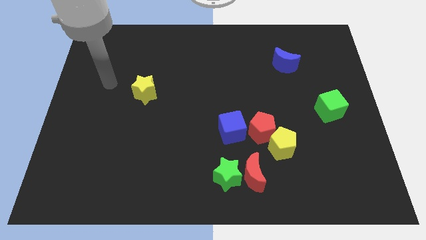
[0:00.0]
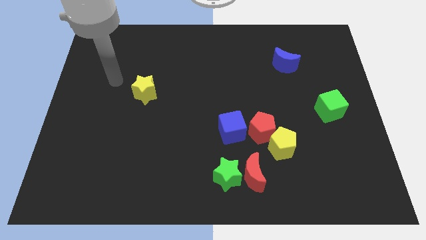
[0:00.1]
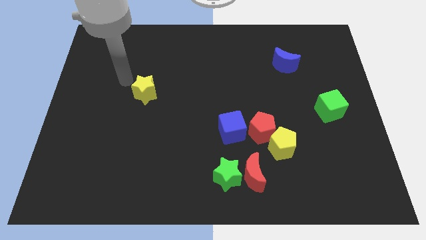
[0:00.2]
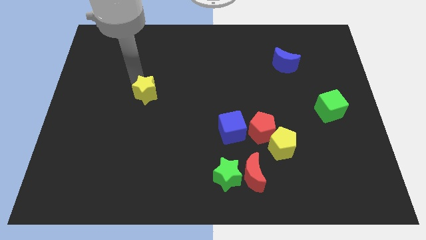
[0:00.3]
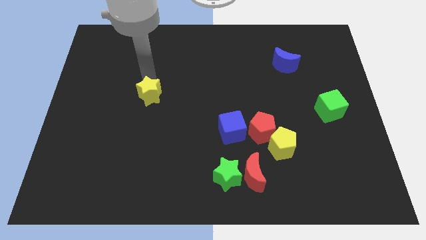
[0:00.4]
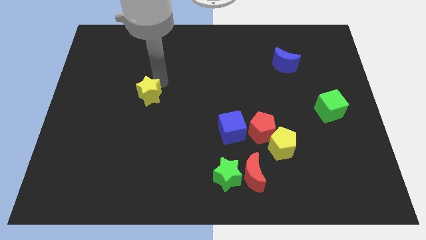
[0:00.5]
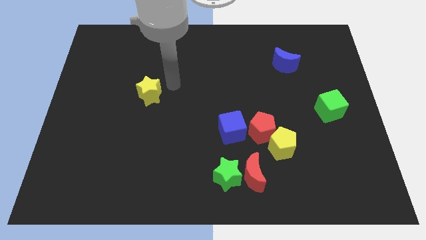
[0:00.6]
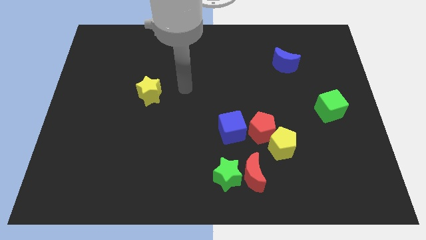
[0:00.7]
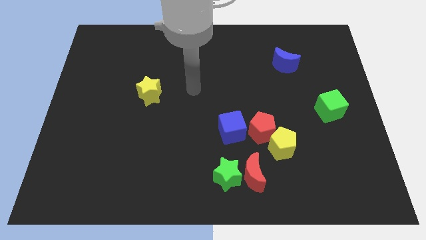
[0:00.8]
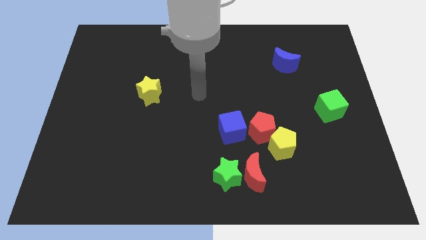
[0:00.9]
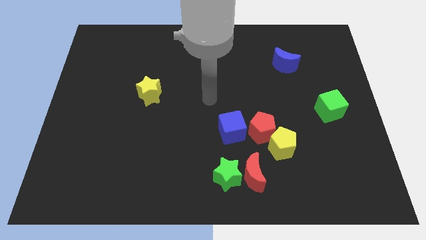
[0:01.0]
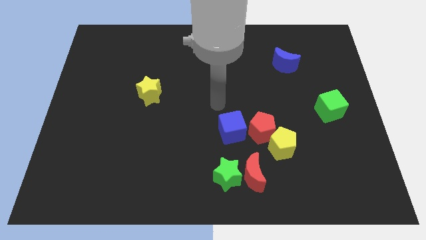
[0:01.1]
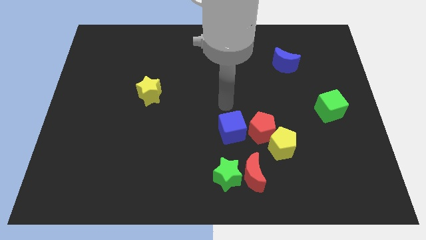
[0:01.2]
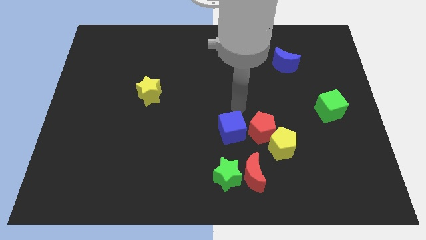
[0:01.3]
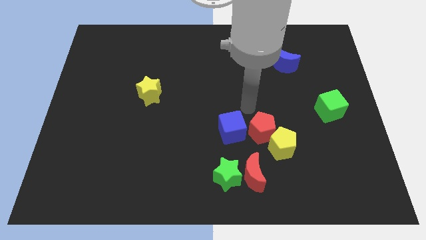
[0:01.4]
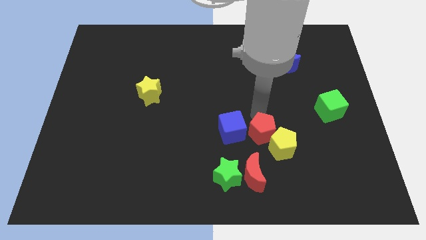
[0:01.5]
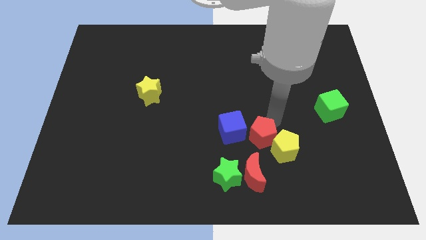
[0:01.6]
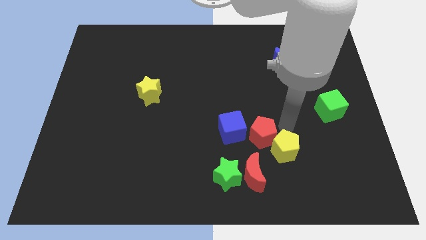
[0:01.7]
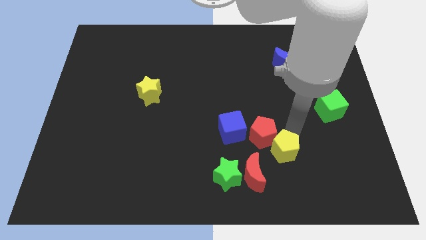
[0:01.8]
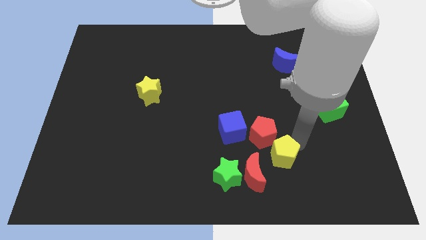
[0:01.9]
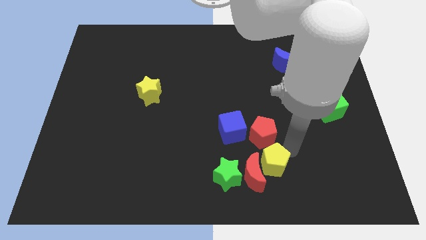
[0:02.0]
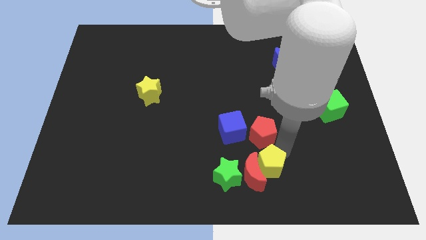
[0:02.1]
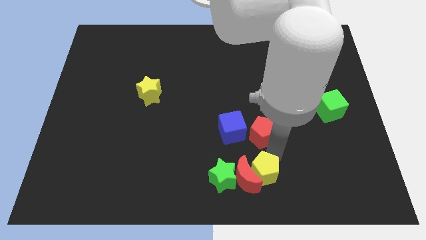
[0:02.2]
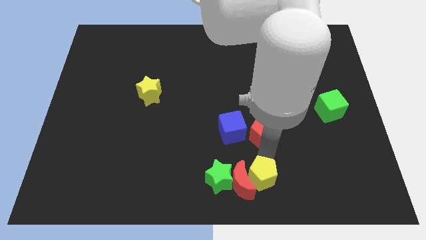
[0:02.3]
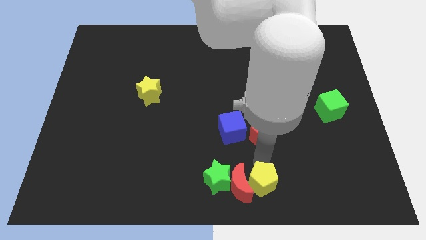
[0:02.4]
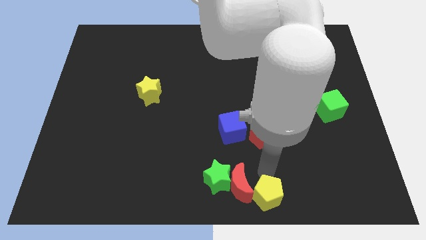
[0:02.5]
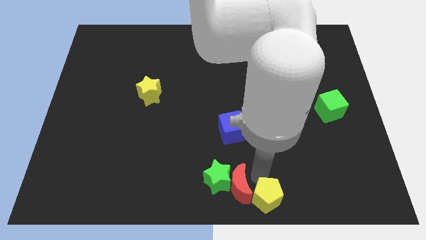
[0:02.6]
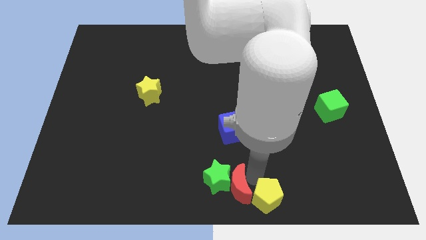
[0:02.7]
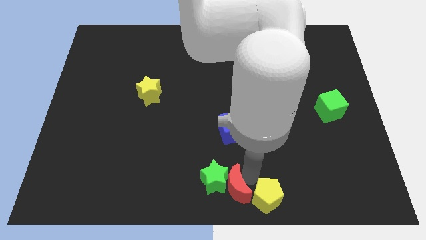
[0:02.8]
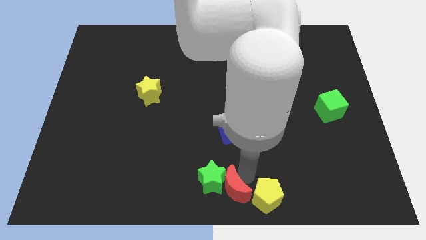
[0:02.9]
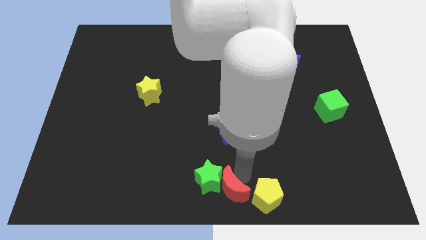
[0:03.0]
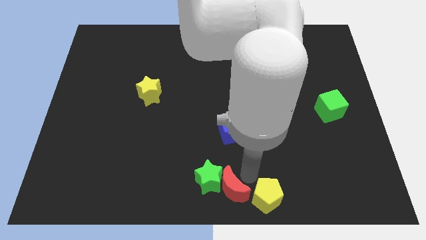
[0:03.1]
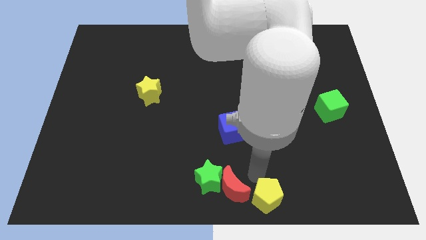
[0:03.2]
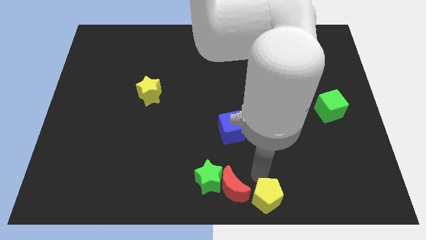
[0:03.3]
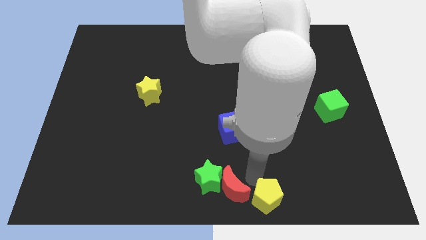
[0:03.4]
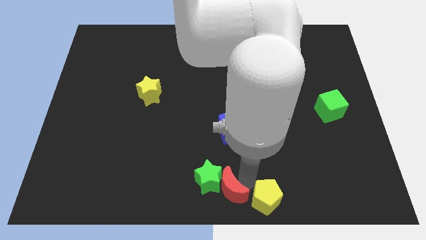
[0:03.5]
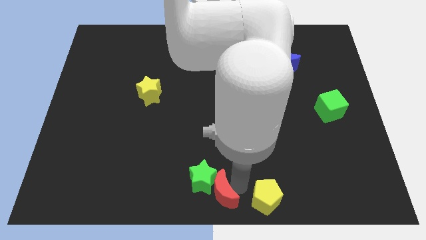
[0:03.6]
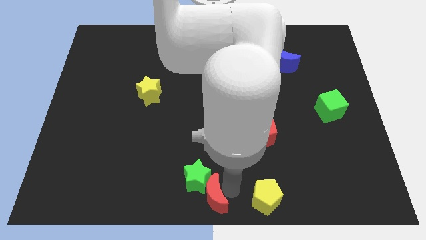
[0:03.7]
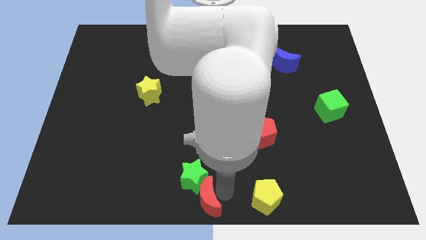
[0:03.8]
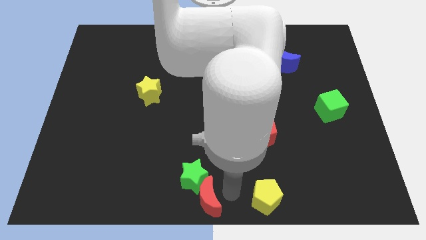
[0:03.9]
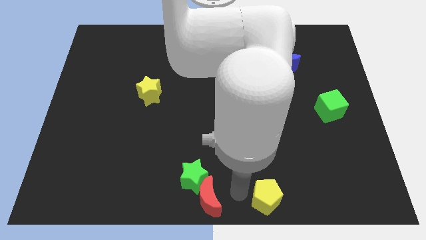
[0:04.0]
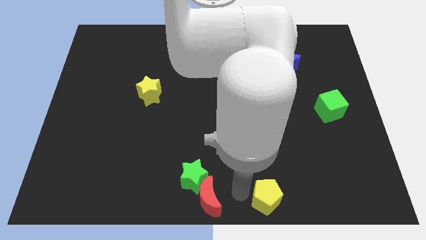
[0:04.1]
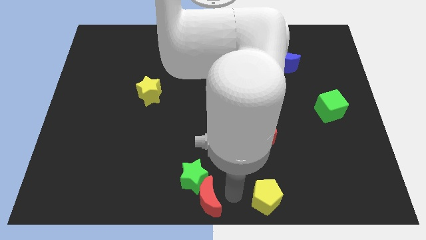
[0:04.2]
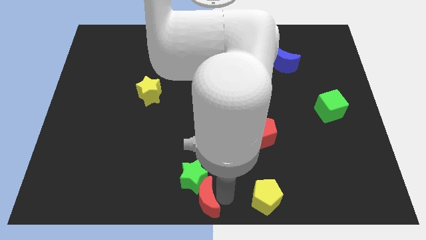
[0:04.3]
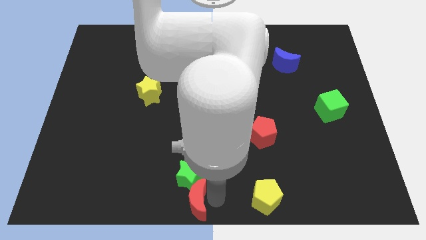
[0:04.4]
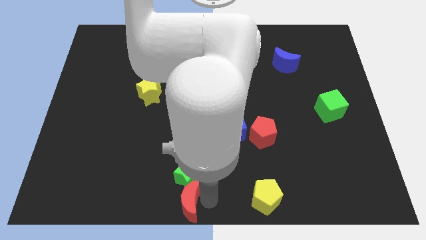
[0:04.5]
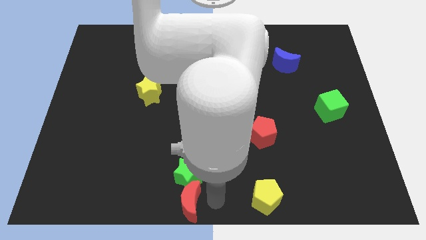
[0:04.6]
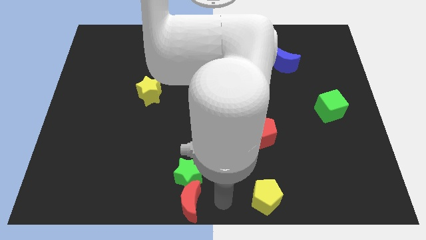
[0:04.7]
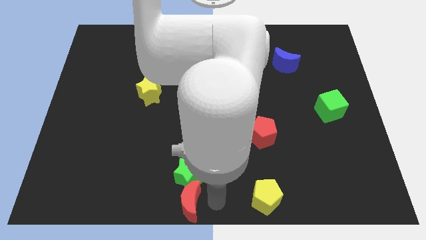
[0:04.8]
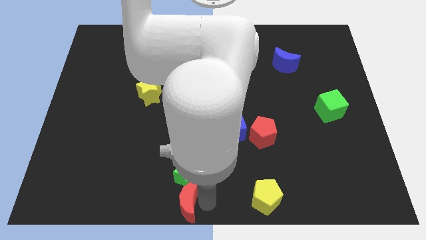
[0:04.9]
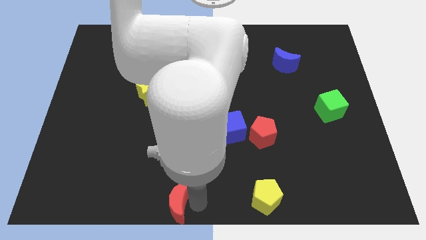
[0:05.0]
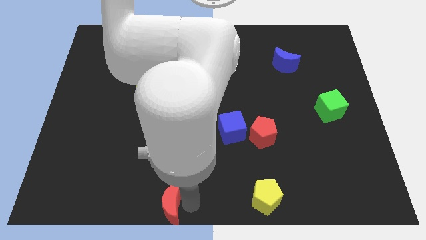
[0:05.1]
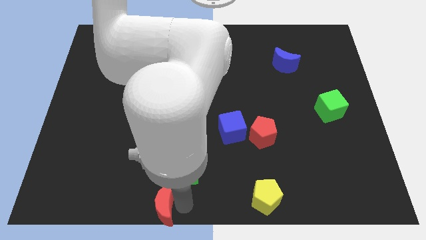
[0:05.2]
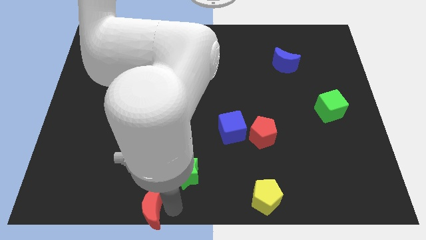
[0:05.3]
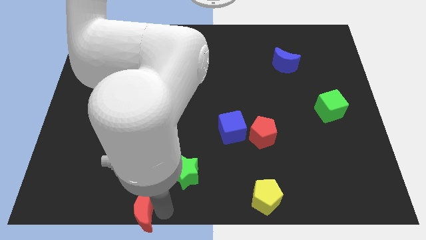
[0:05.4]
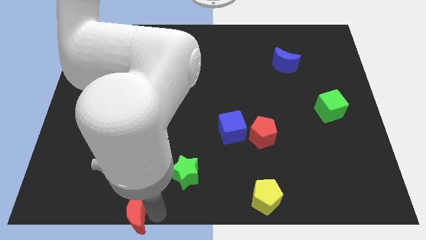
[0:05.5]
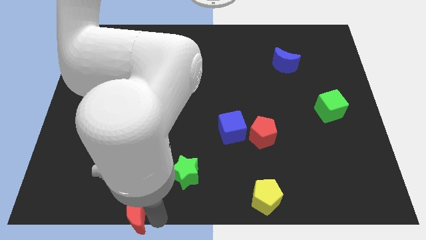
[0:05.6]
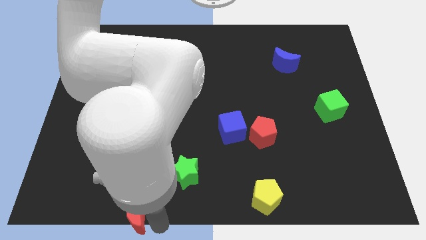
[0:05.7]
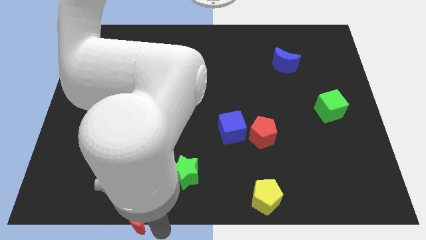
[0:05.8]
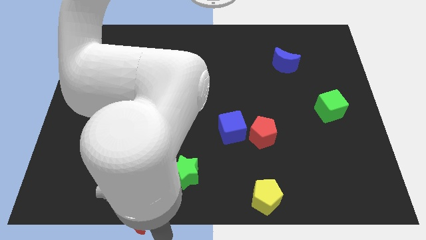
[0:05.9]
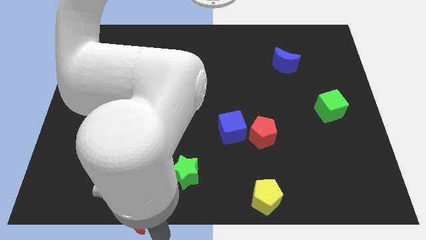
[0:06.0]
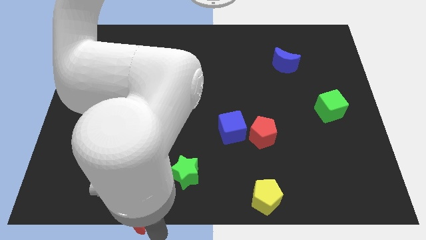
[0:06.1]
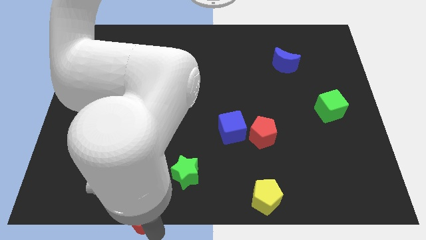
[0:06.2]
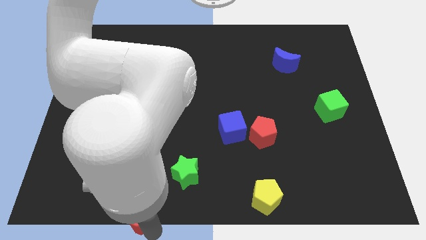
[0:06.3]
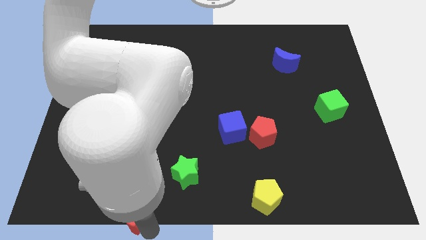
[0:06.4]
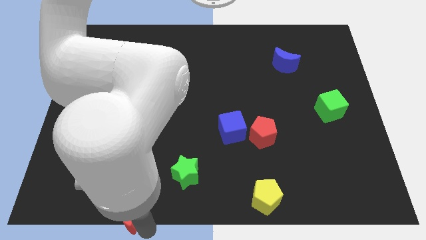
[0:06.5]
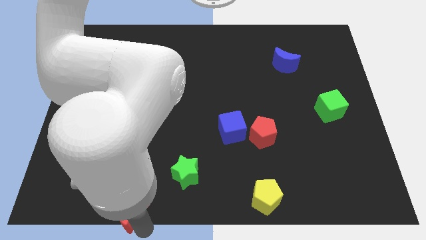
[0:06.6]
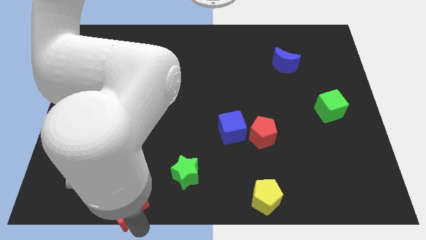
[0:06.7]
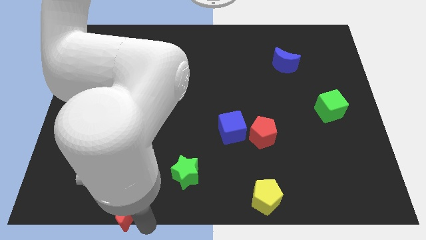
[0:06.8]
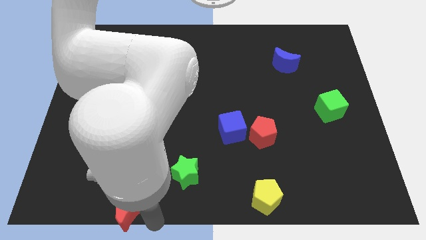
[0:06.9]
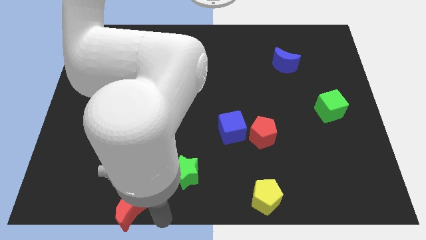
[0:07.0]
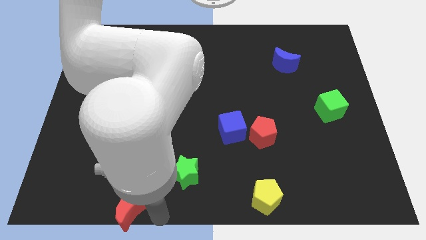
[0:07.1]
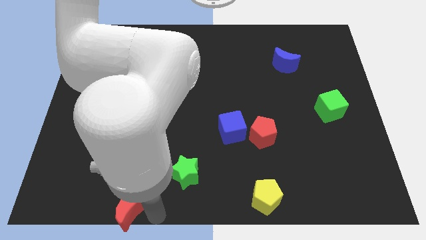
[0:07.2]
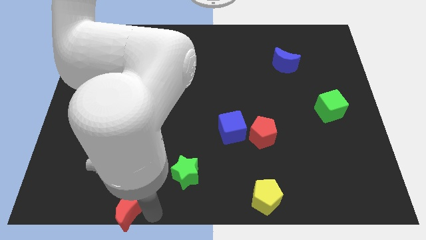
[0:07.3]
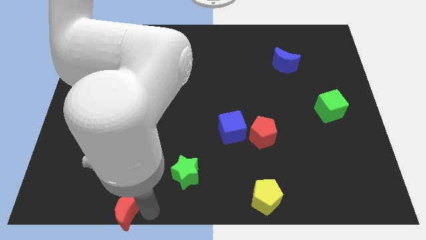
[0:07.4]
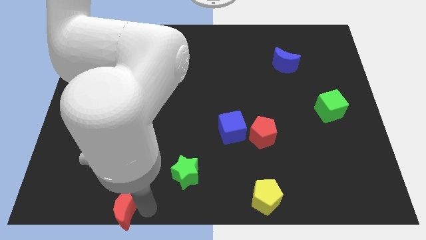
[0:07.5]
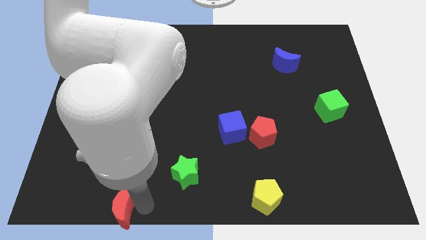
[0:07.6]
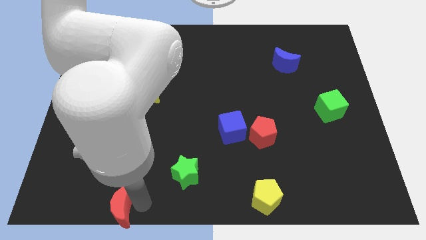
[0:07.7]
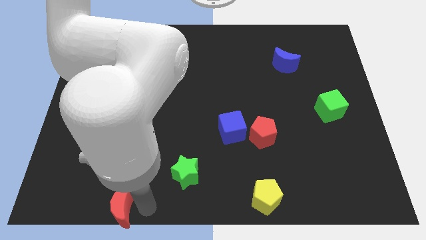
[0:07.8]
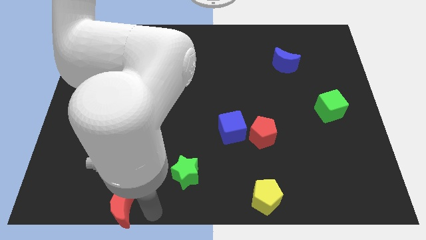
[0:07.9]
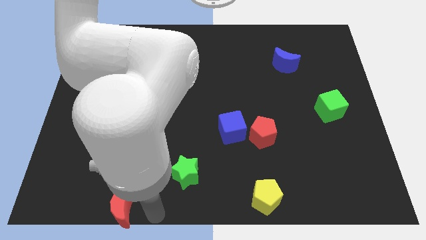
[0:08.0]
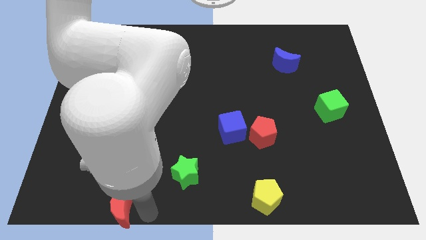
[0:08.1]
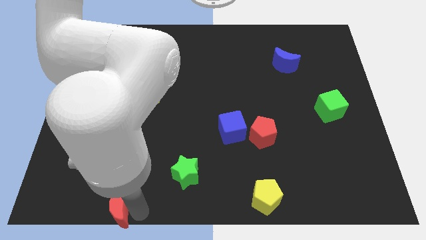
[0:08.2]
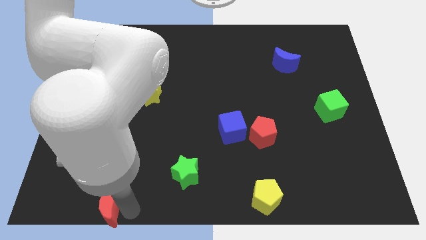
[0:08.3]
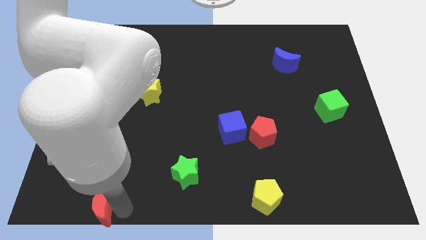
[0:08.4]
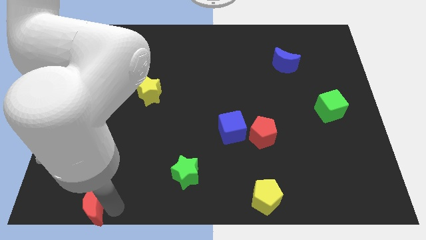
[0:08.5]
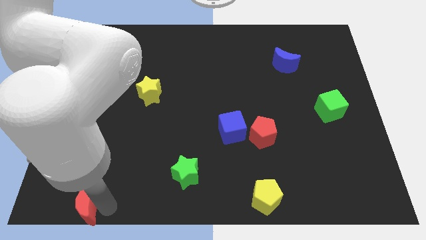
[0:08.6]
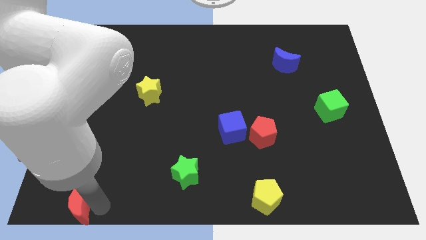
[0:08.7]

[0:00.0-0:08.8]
put the red moon to the bottom left
